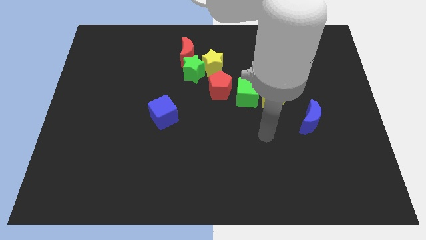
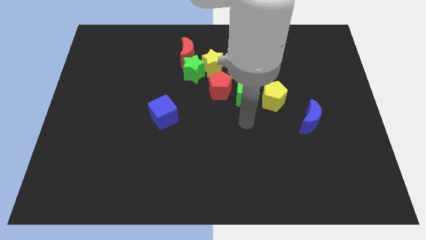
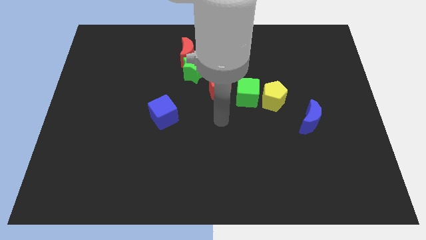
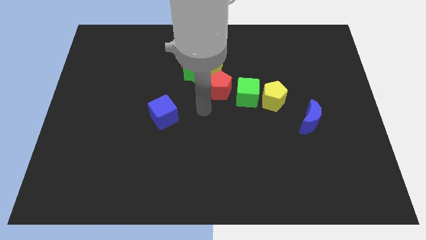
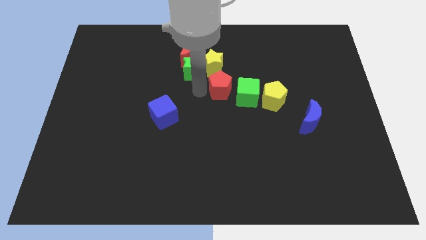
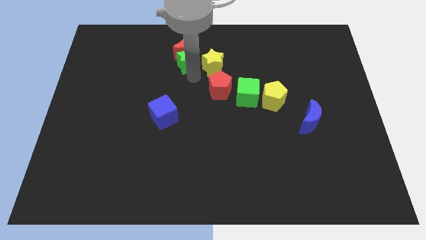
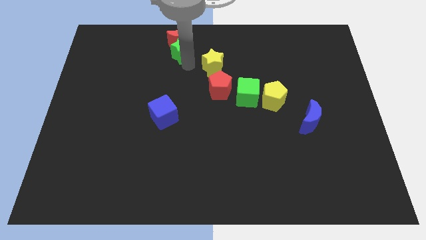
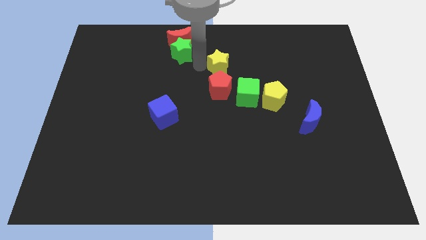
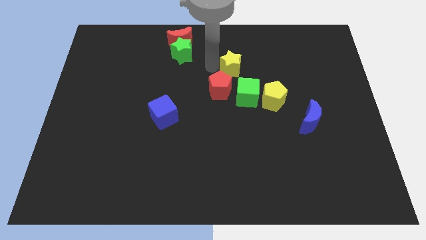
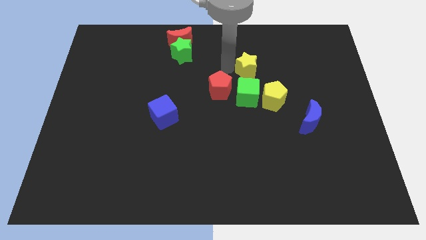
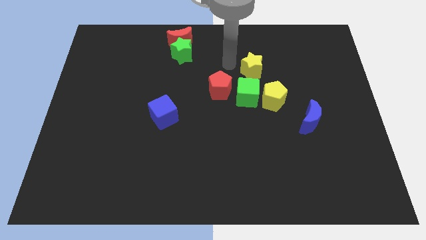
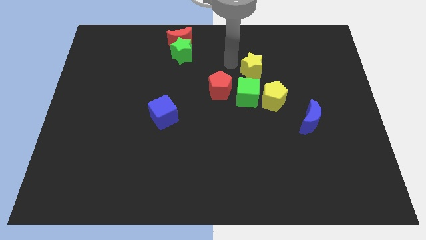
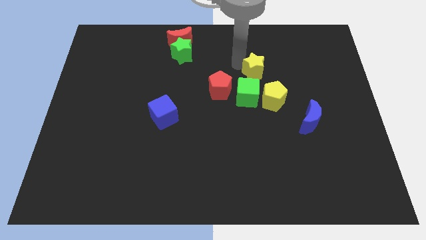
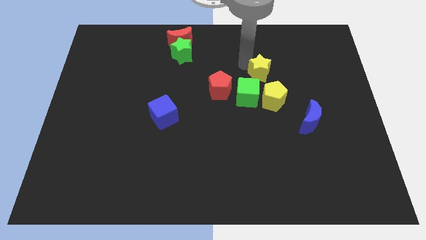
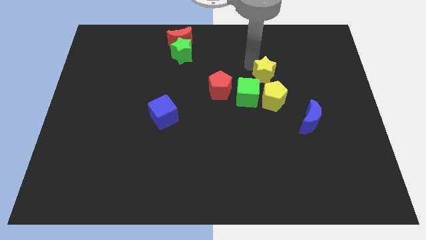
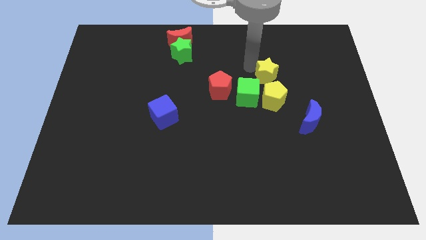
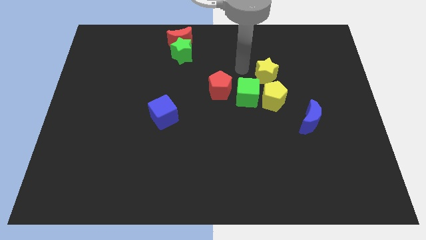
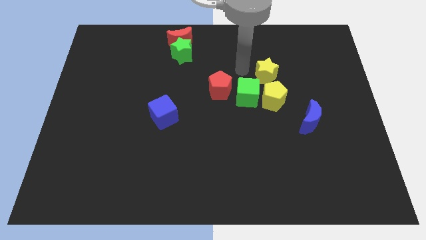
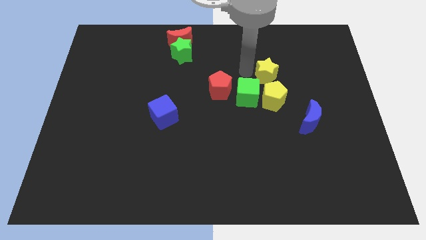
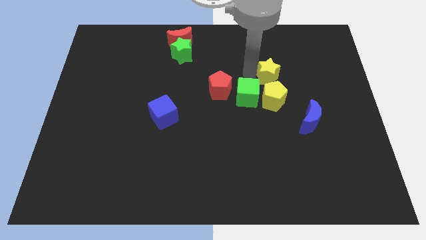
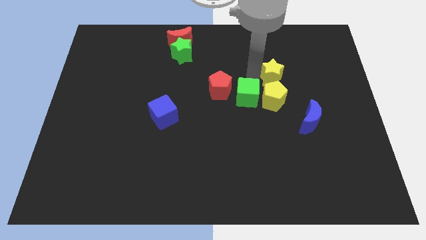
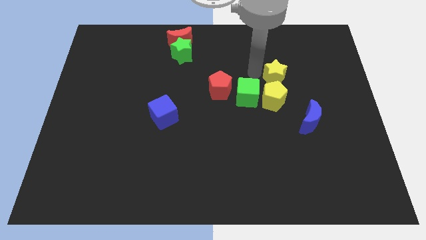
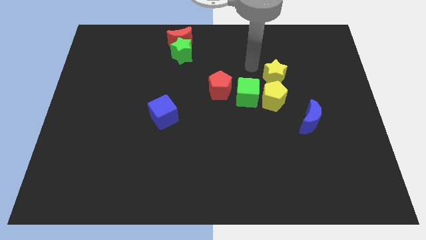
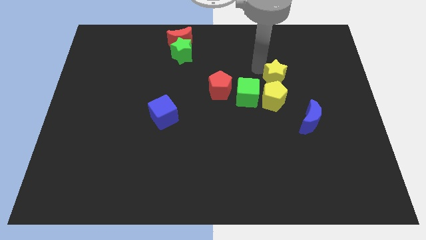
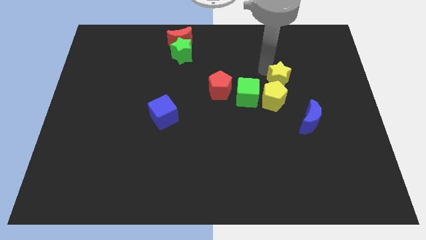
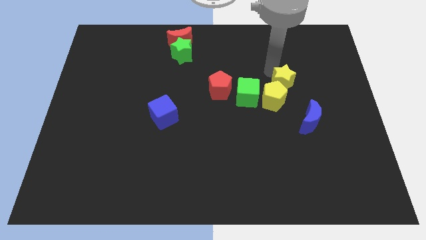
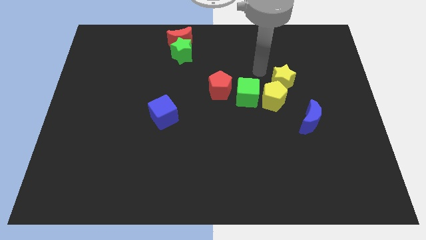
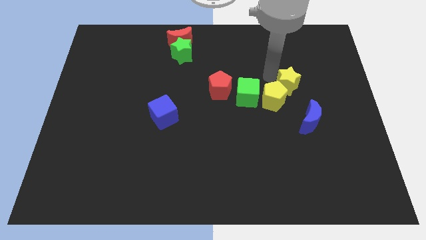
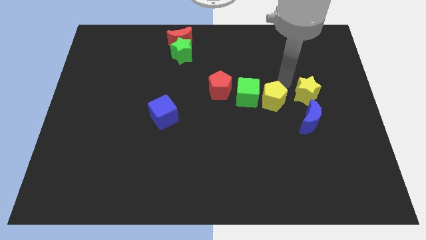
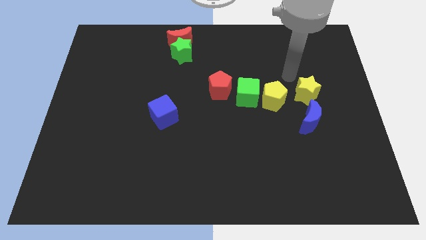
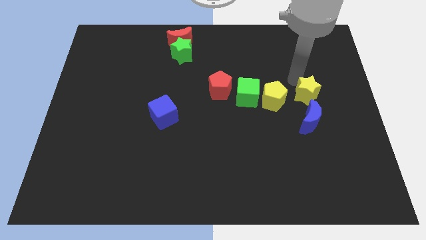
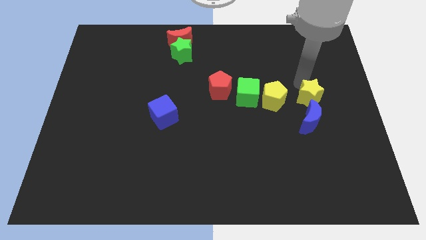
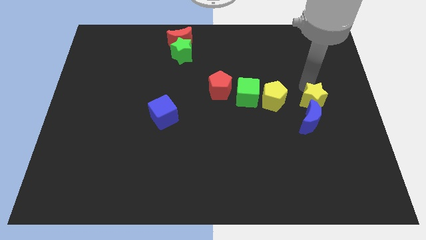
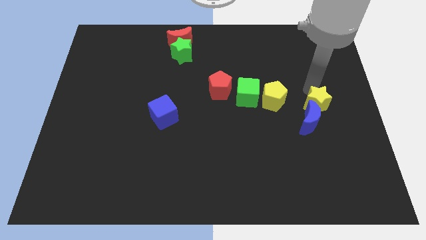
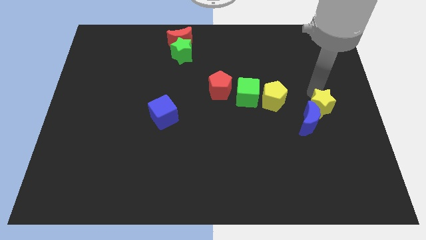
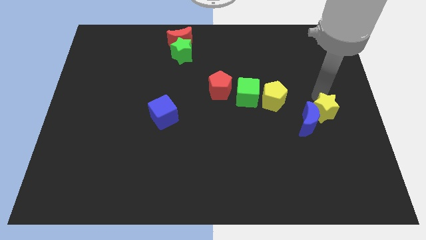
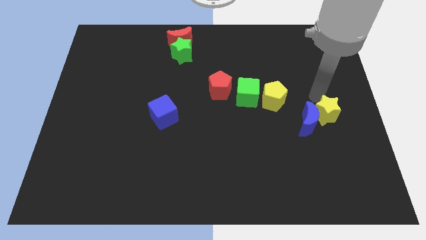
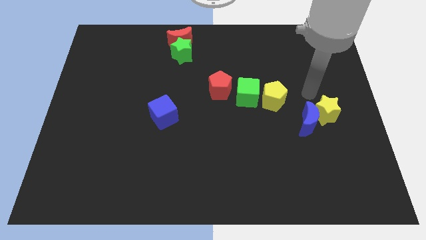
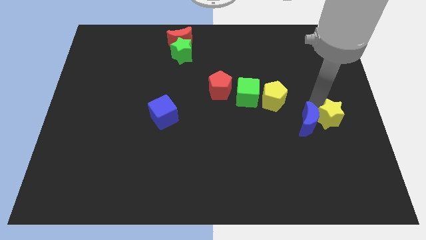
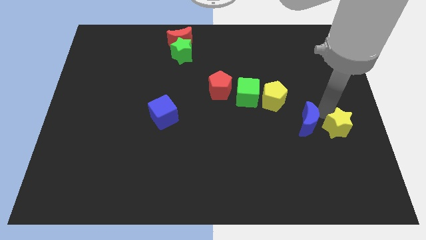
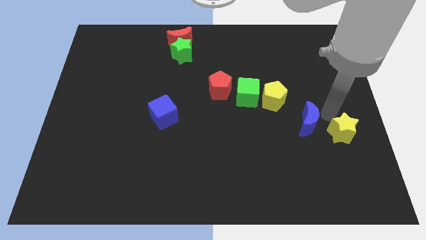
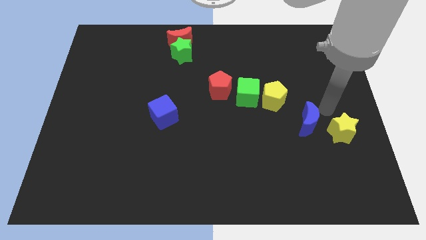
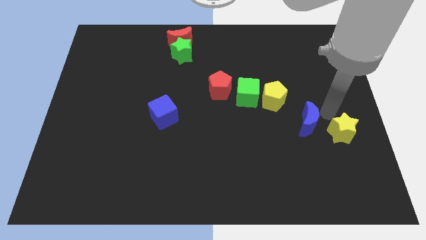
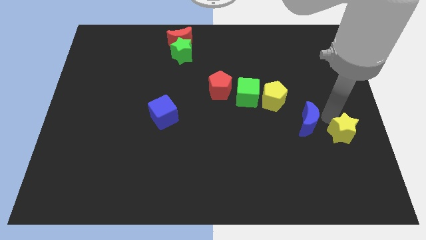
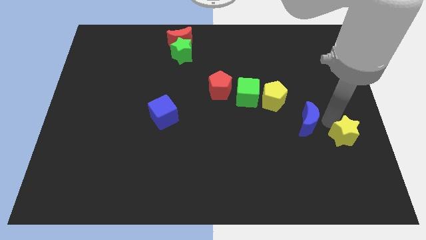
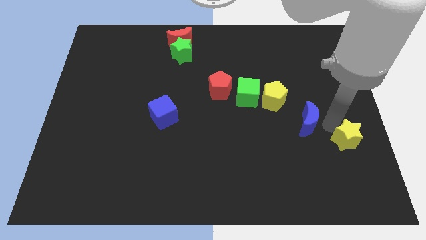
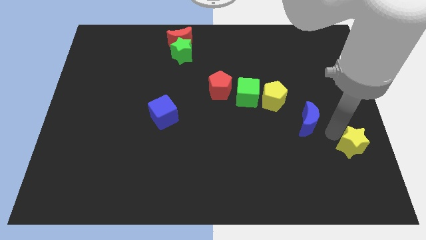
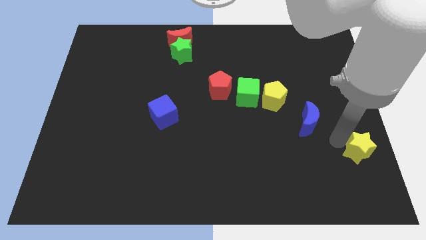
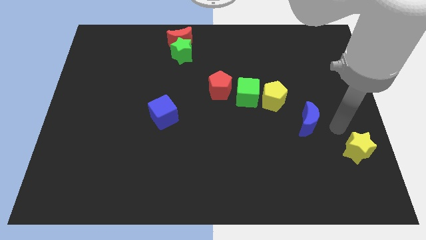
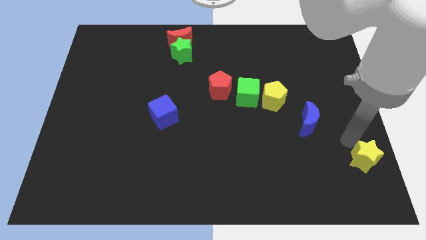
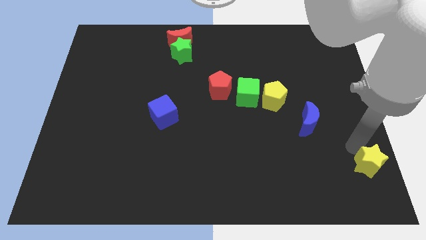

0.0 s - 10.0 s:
push the yellow star to the bottom right

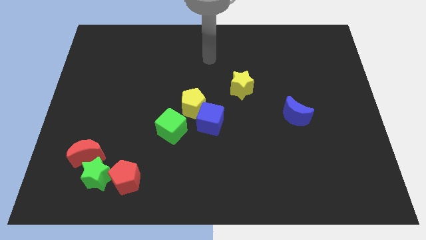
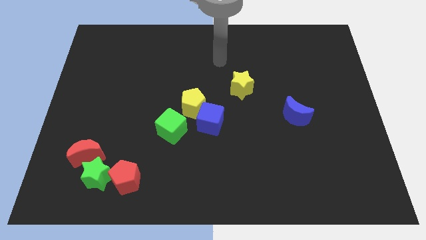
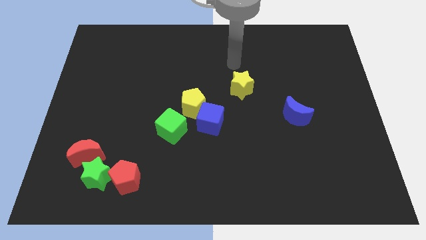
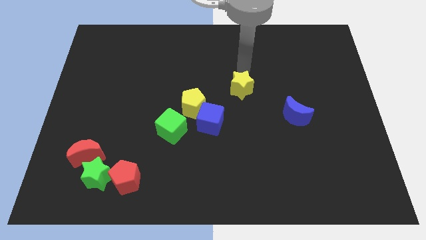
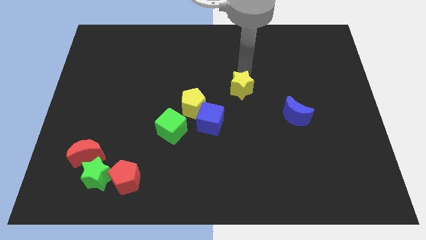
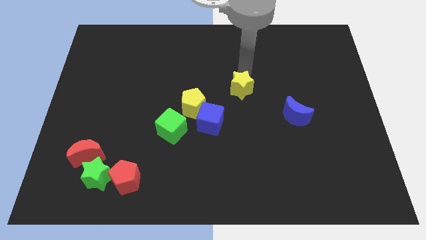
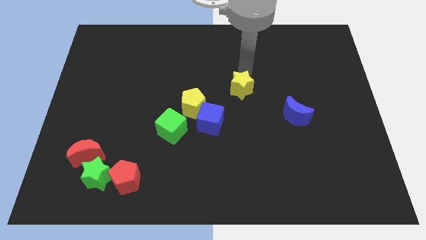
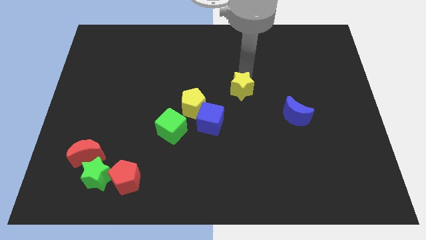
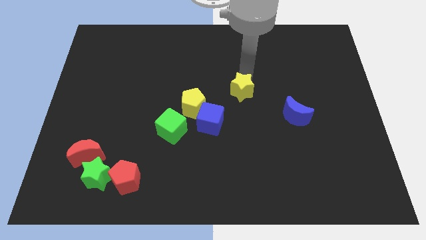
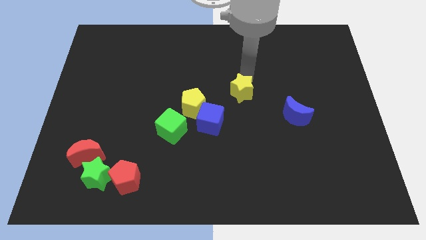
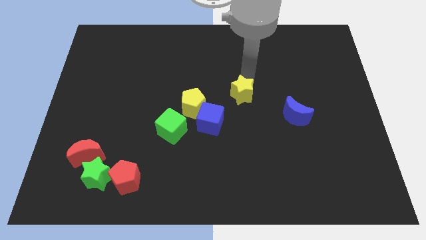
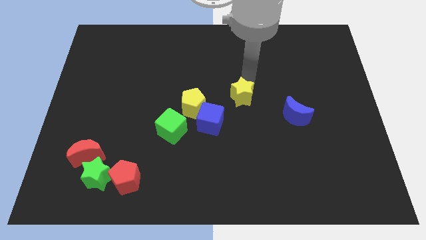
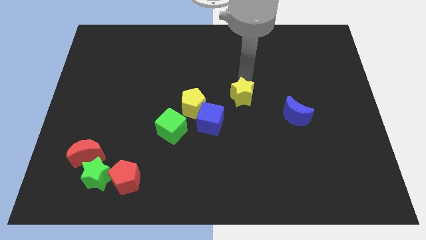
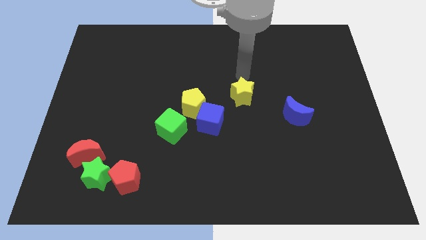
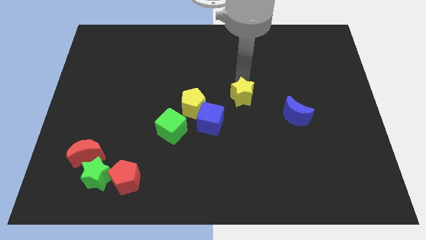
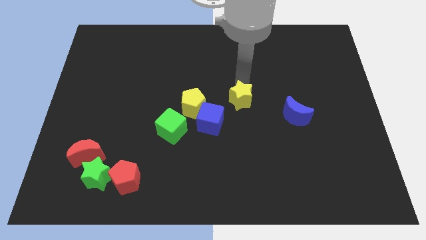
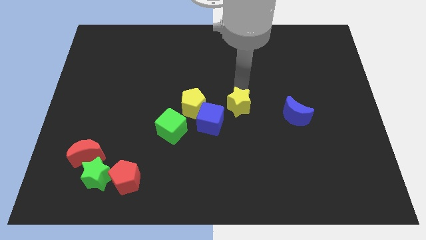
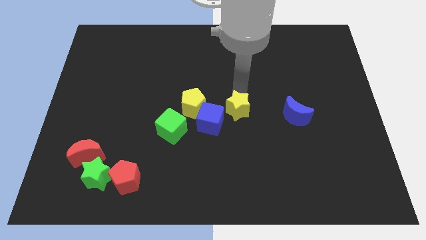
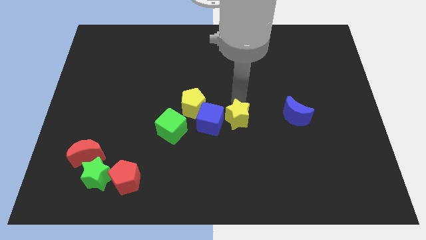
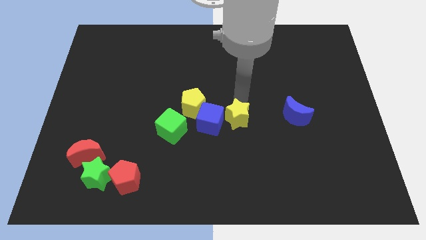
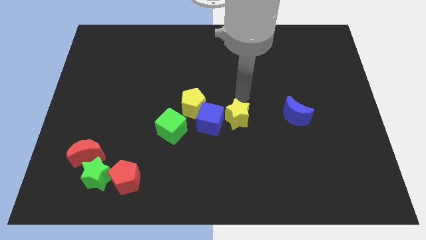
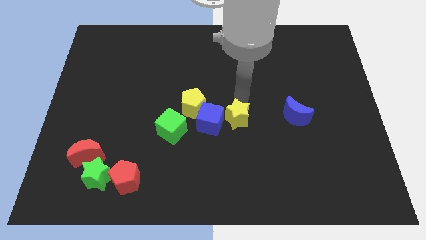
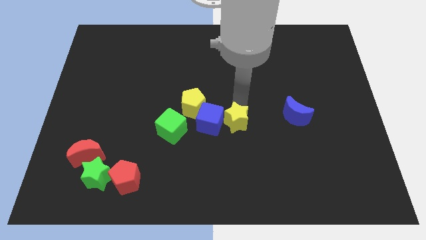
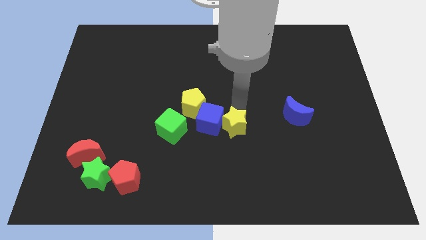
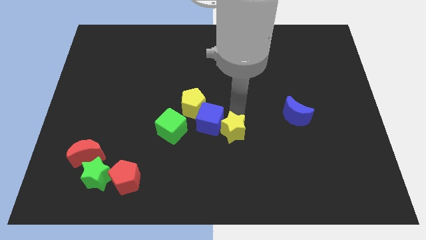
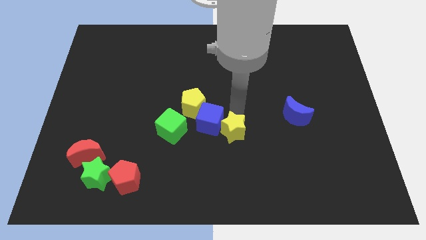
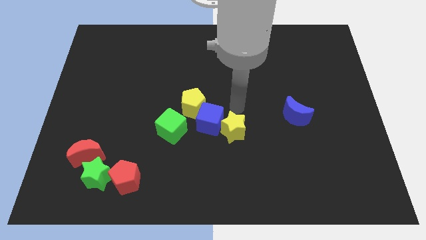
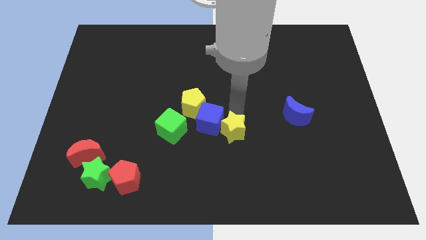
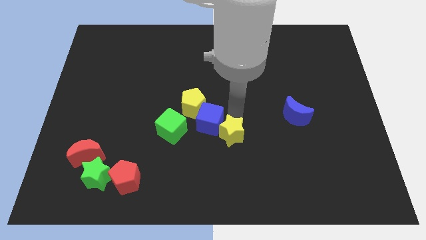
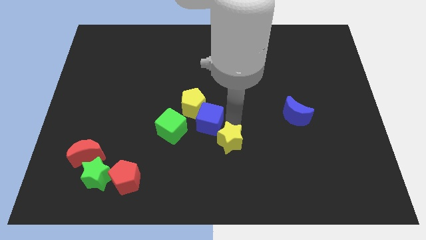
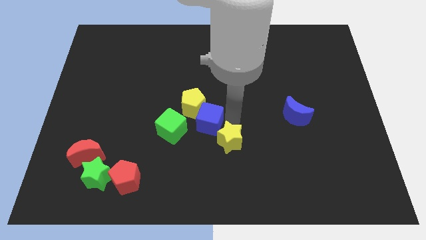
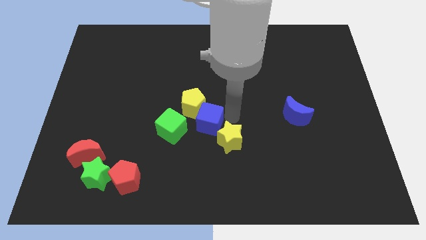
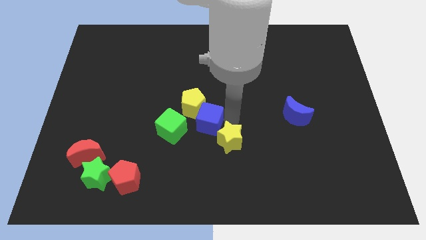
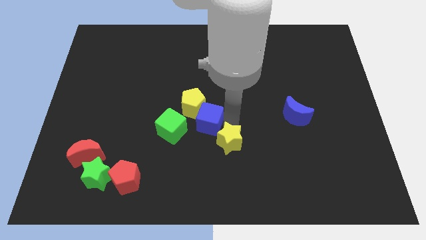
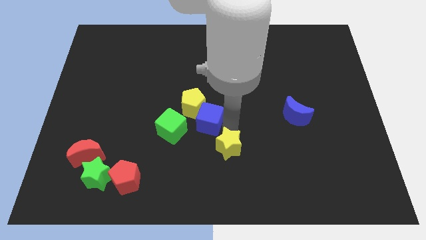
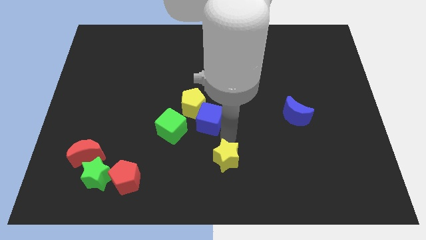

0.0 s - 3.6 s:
slide the yellow star to the bottom side
